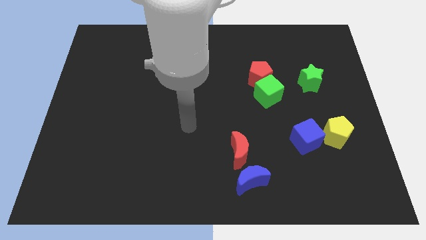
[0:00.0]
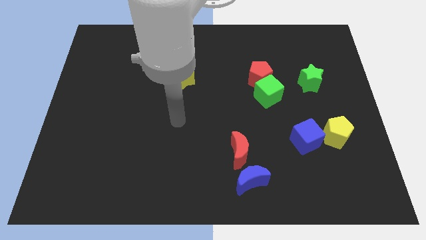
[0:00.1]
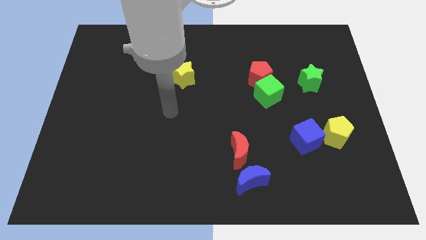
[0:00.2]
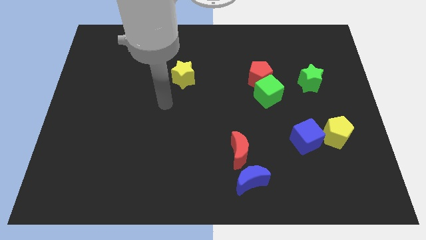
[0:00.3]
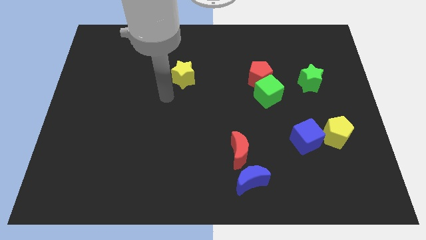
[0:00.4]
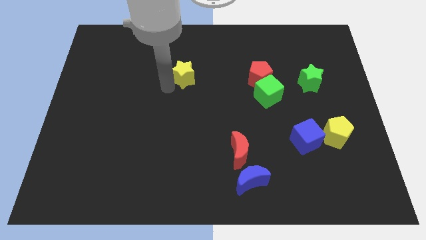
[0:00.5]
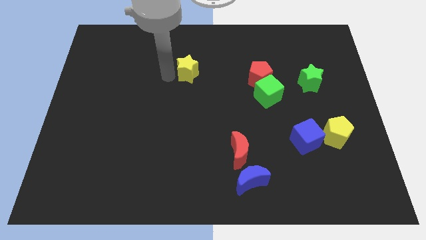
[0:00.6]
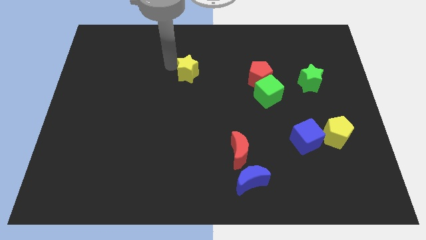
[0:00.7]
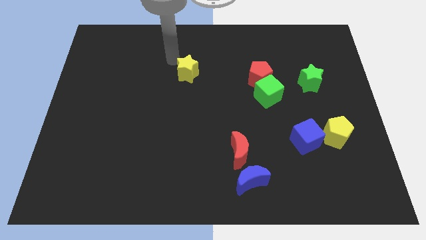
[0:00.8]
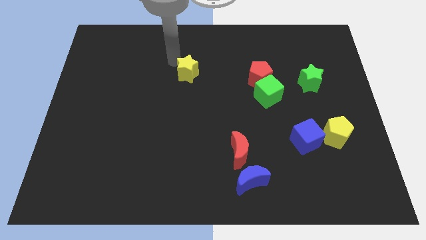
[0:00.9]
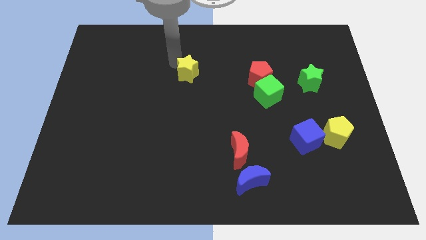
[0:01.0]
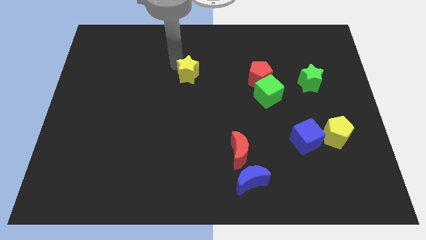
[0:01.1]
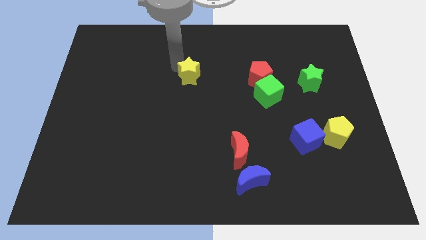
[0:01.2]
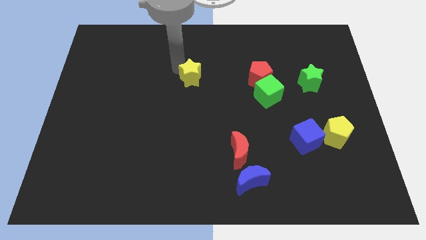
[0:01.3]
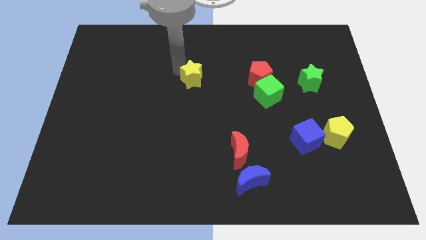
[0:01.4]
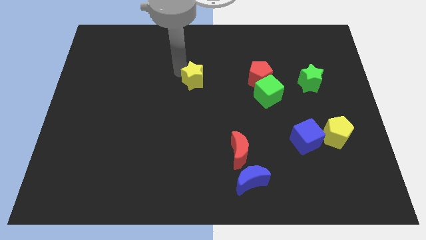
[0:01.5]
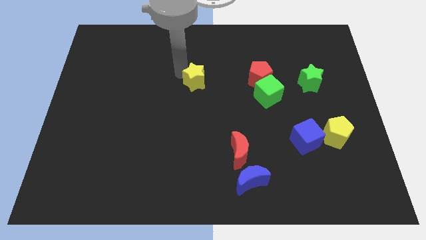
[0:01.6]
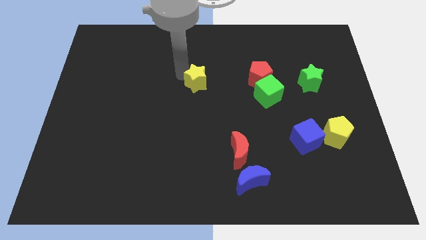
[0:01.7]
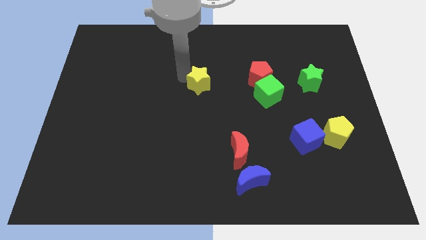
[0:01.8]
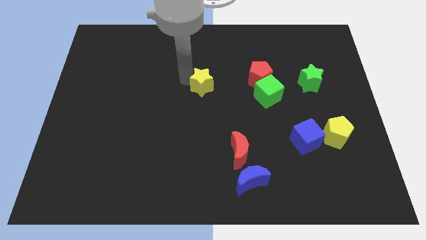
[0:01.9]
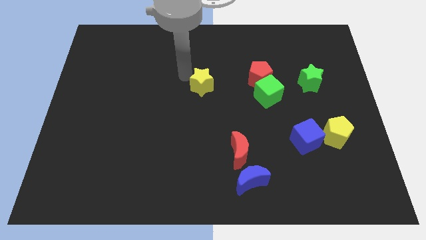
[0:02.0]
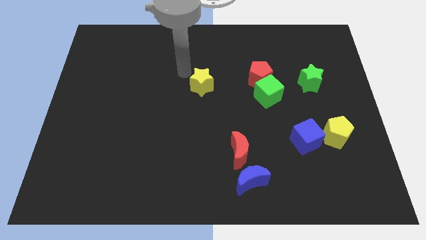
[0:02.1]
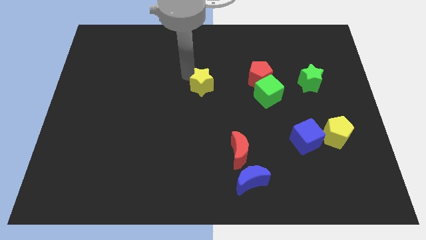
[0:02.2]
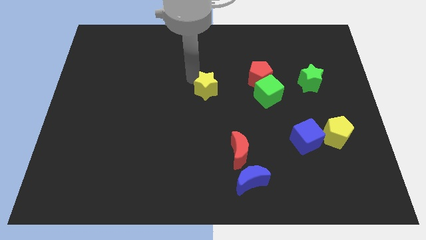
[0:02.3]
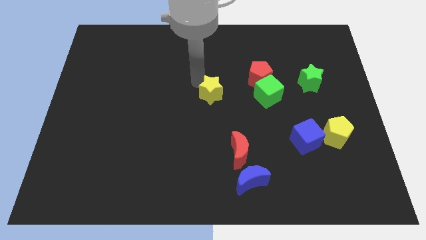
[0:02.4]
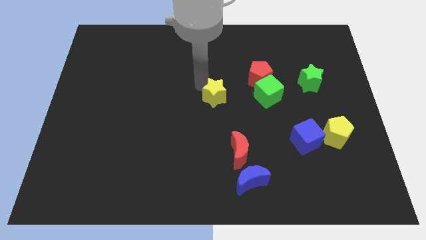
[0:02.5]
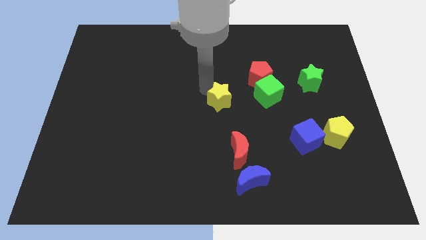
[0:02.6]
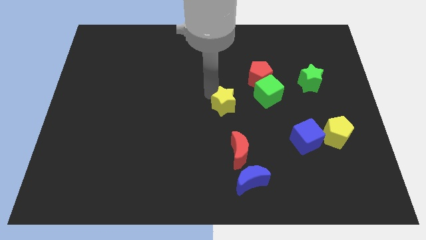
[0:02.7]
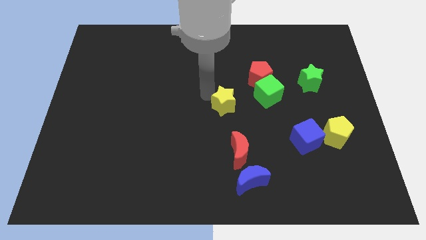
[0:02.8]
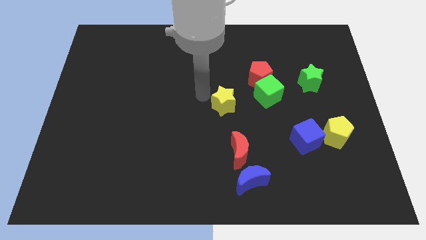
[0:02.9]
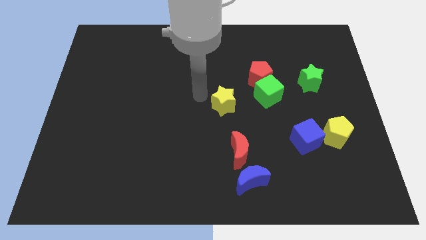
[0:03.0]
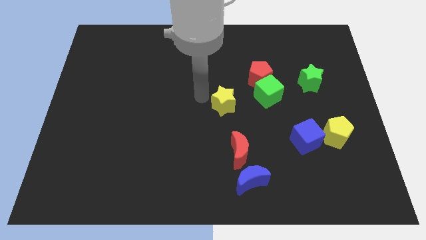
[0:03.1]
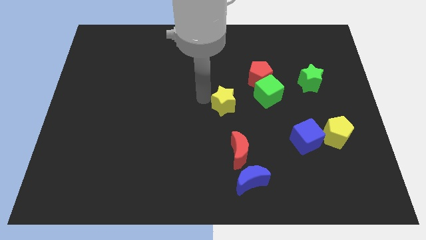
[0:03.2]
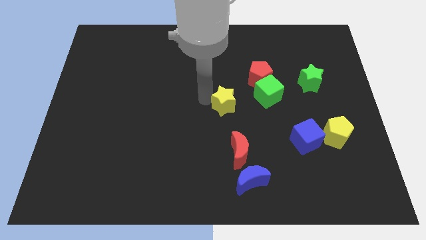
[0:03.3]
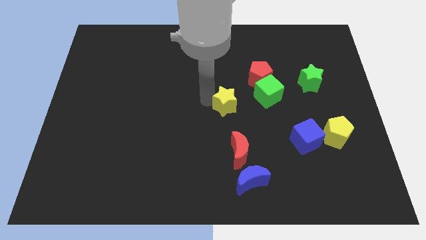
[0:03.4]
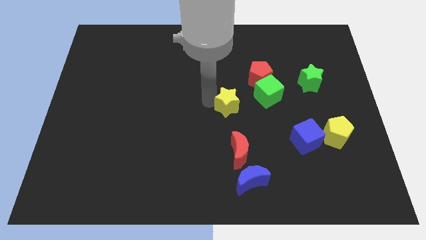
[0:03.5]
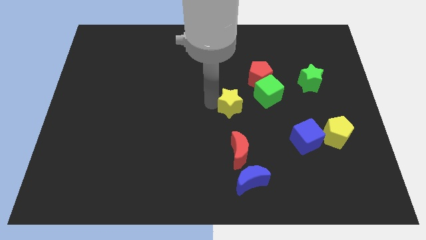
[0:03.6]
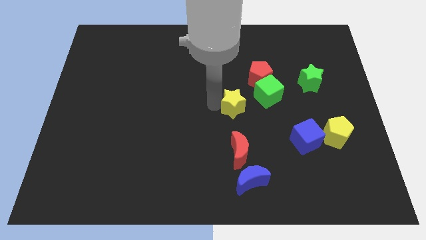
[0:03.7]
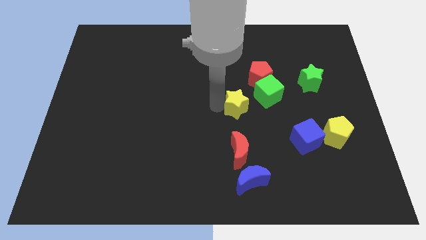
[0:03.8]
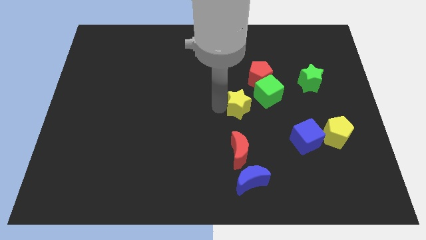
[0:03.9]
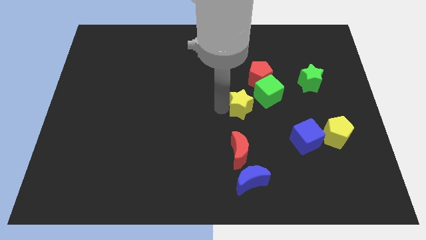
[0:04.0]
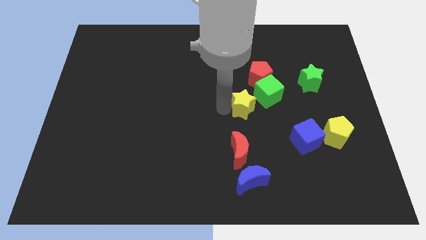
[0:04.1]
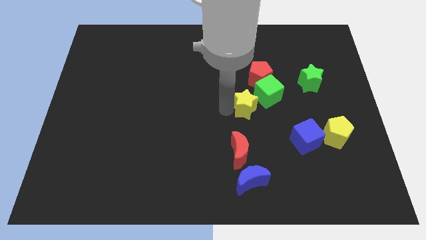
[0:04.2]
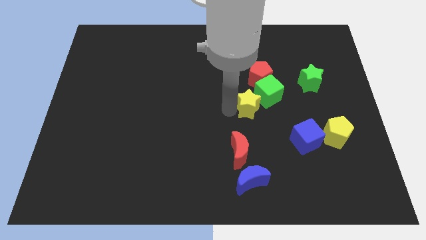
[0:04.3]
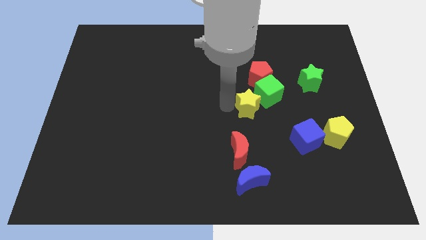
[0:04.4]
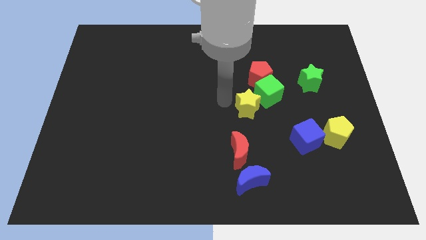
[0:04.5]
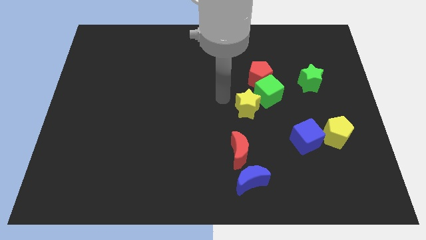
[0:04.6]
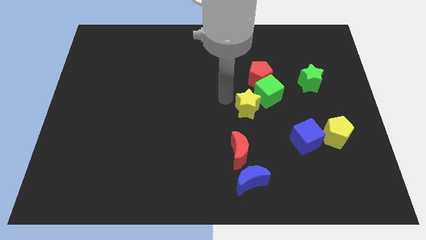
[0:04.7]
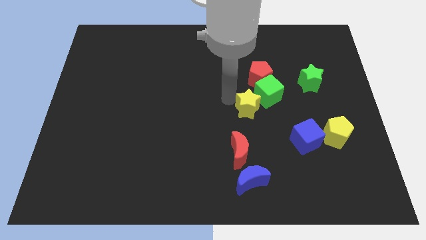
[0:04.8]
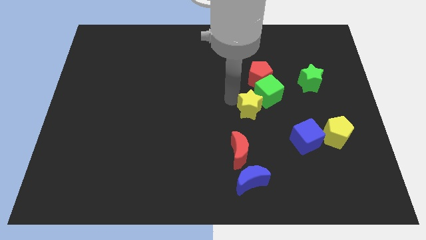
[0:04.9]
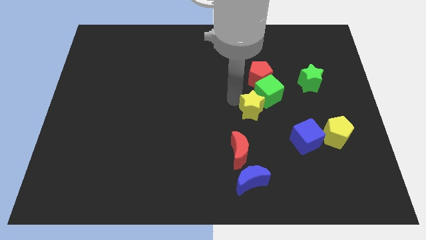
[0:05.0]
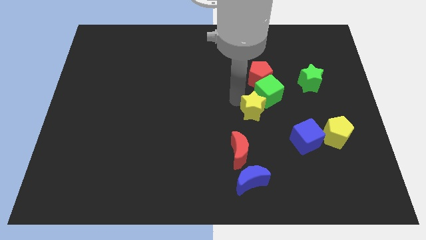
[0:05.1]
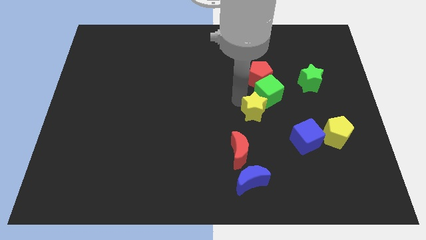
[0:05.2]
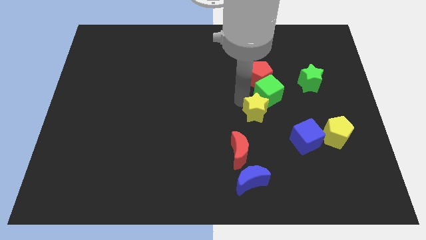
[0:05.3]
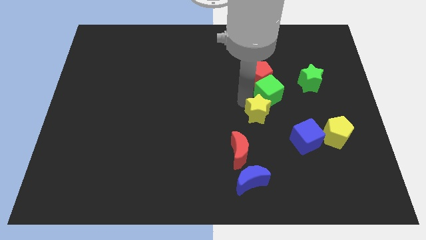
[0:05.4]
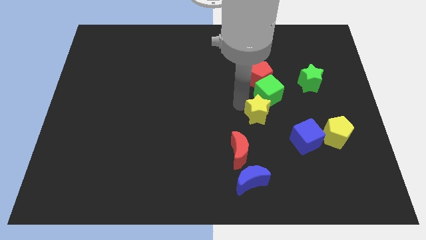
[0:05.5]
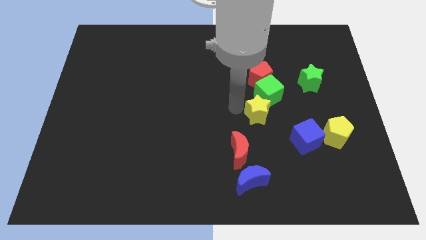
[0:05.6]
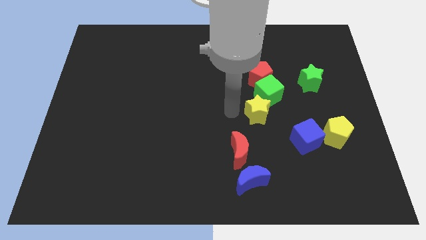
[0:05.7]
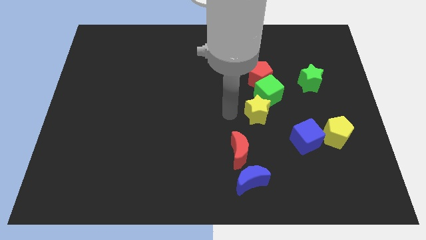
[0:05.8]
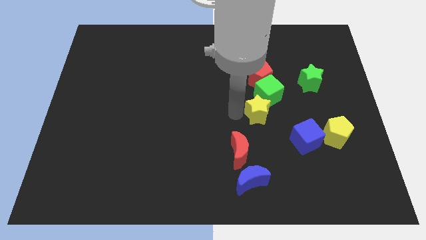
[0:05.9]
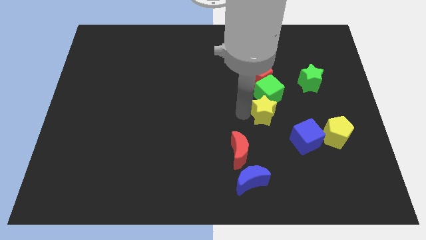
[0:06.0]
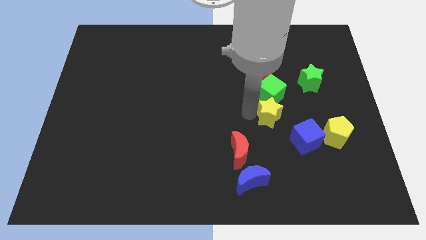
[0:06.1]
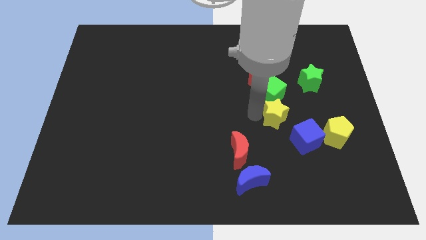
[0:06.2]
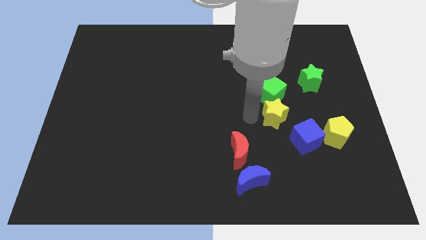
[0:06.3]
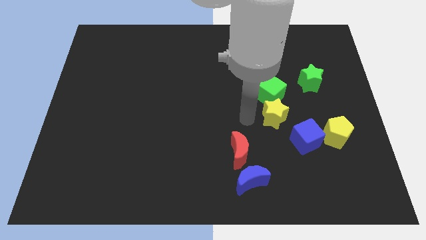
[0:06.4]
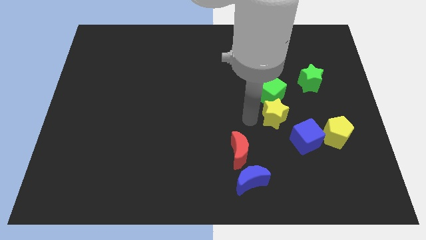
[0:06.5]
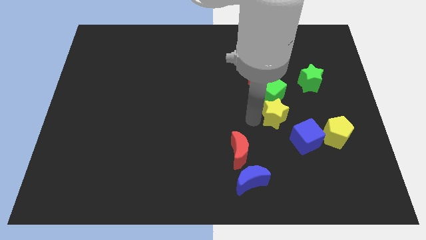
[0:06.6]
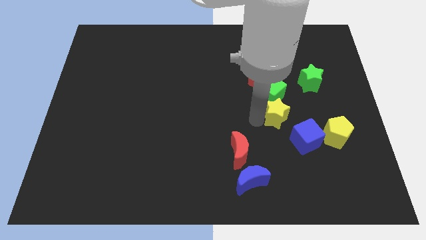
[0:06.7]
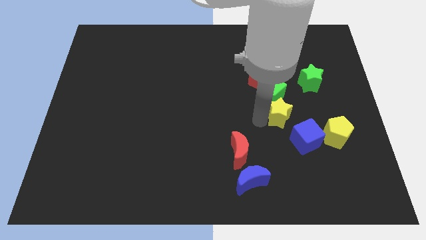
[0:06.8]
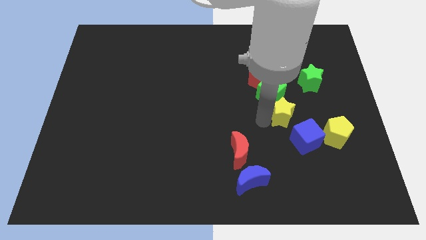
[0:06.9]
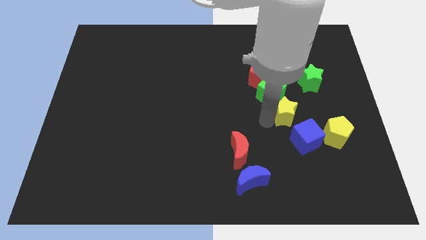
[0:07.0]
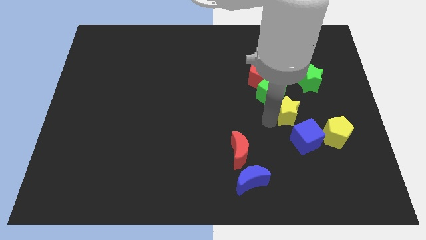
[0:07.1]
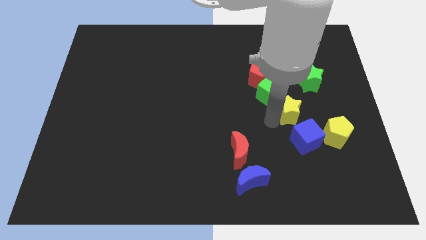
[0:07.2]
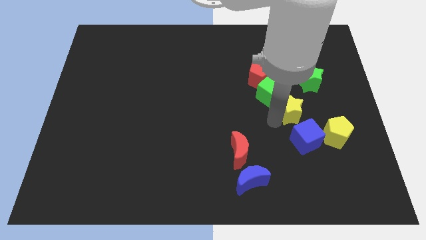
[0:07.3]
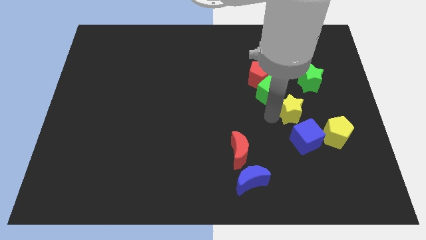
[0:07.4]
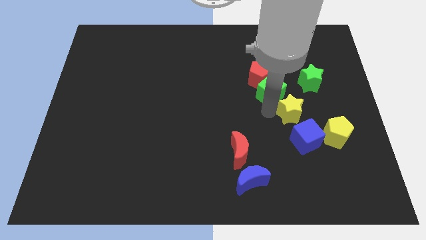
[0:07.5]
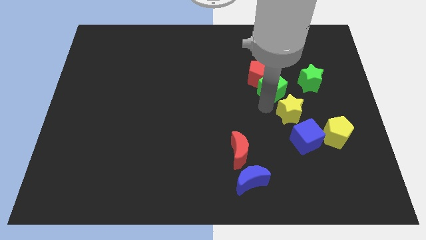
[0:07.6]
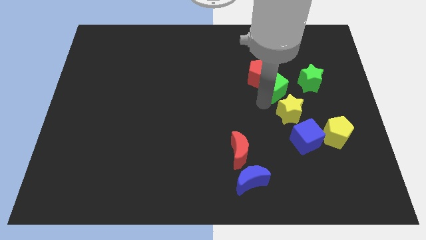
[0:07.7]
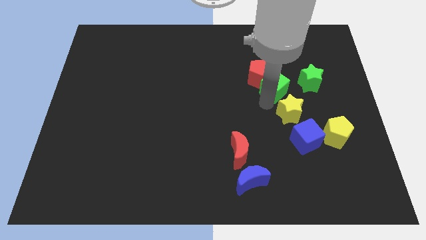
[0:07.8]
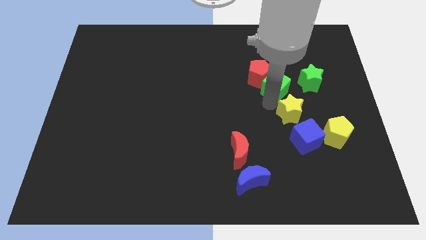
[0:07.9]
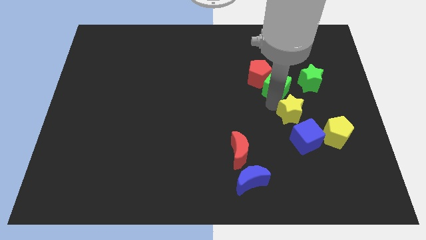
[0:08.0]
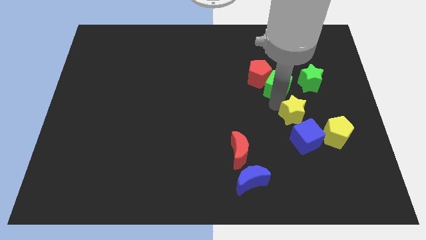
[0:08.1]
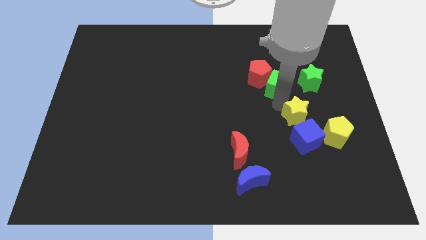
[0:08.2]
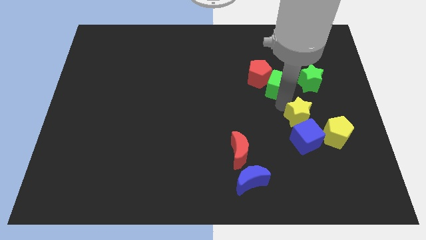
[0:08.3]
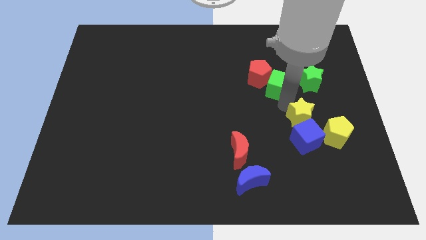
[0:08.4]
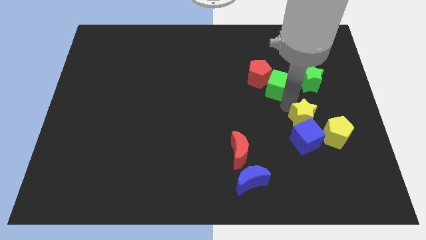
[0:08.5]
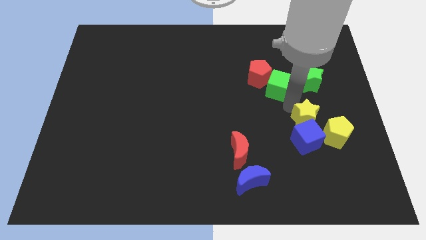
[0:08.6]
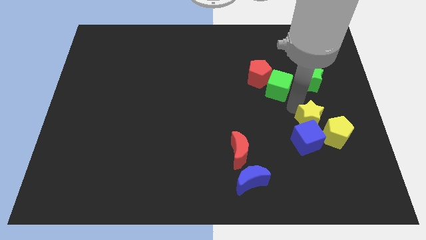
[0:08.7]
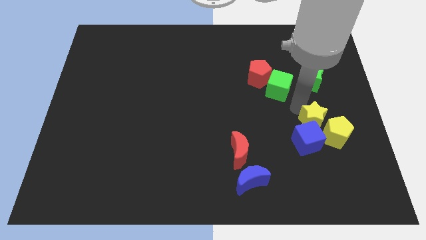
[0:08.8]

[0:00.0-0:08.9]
move the yellow star next to the yellow pentagon
